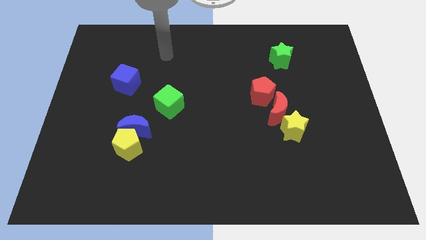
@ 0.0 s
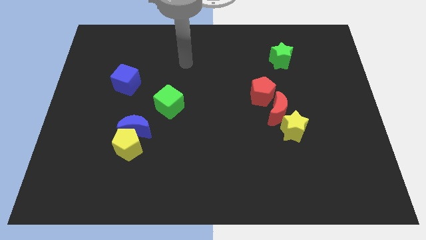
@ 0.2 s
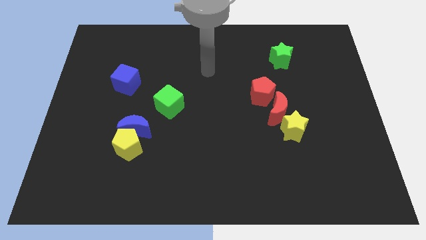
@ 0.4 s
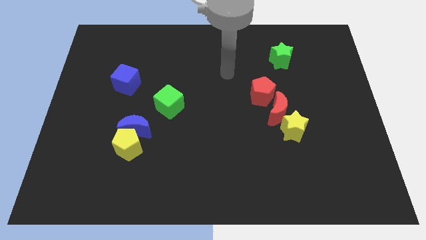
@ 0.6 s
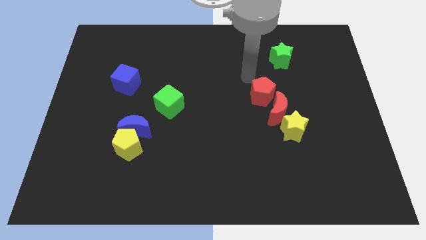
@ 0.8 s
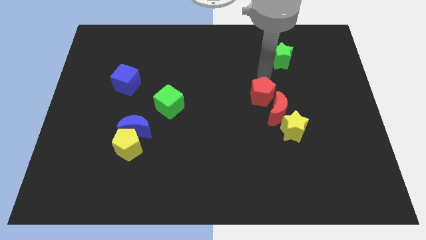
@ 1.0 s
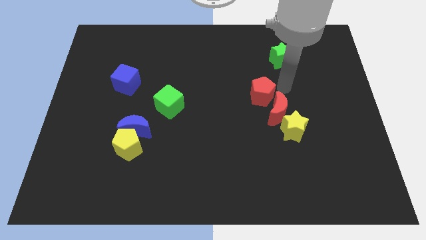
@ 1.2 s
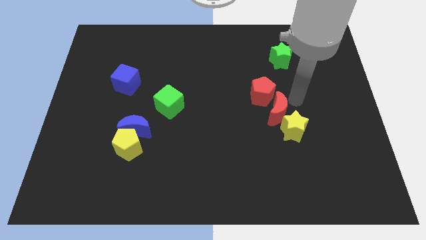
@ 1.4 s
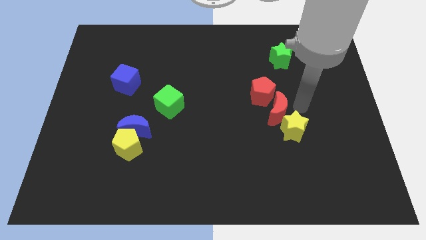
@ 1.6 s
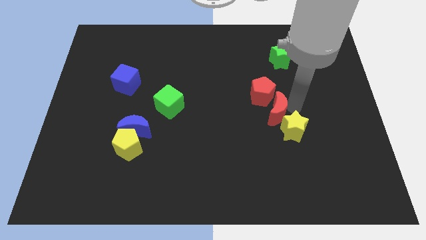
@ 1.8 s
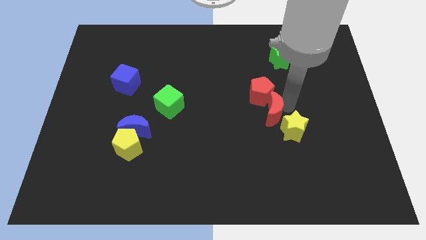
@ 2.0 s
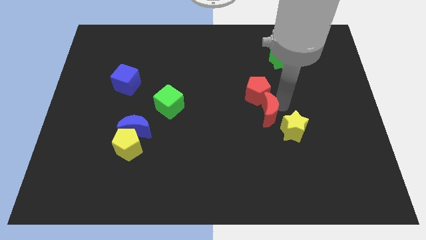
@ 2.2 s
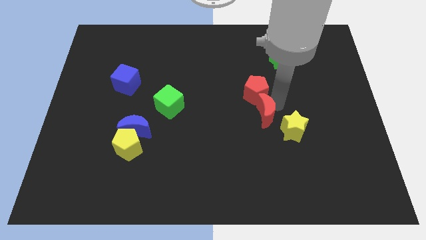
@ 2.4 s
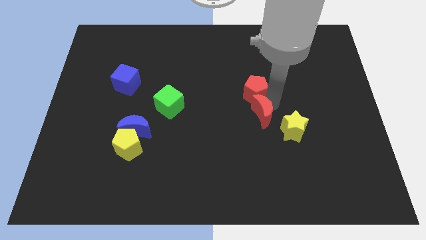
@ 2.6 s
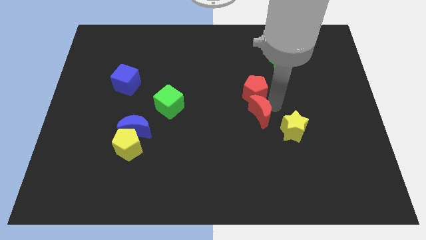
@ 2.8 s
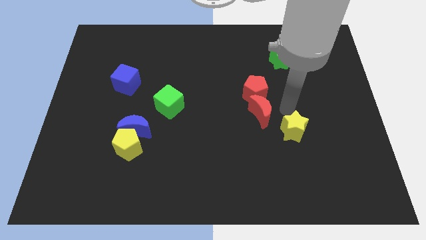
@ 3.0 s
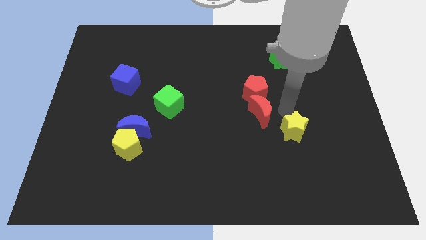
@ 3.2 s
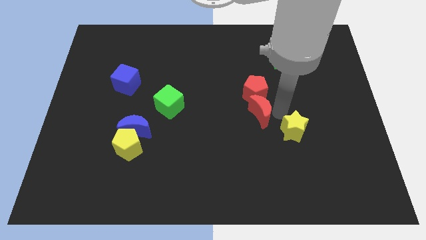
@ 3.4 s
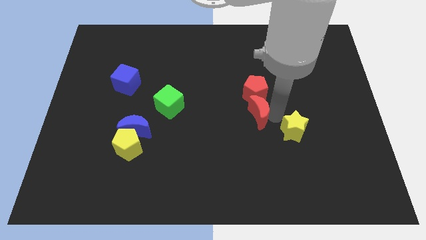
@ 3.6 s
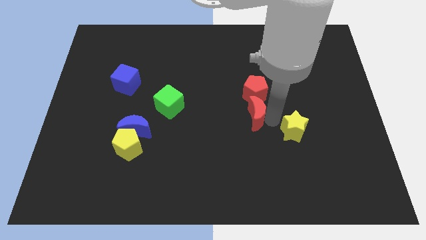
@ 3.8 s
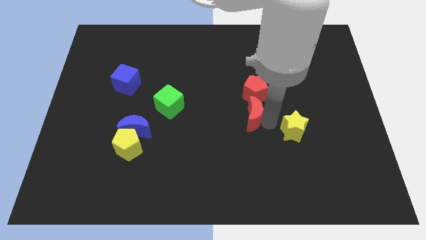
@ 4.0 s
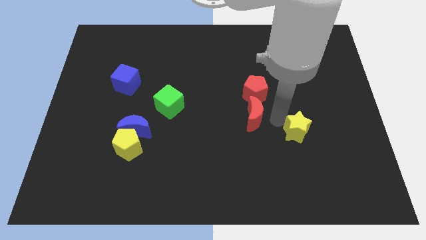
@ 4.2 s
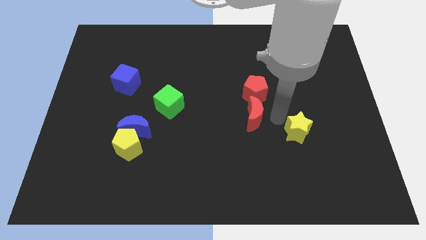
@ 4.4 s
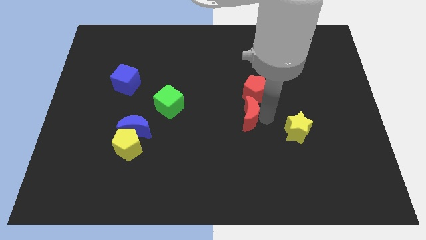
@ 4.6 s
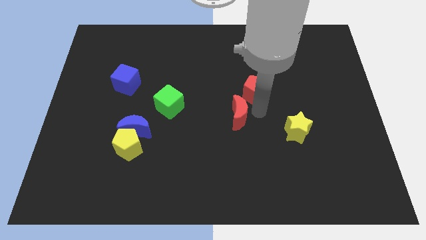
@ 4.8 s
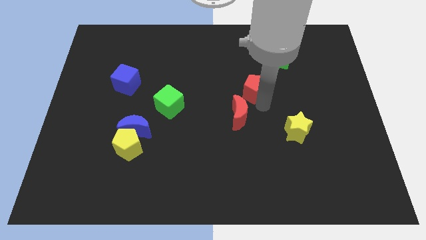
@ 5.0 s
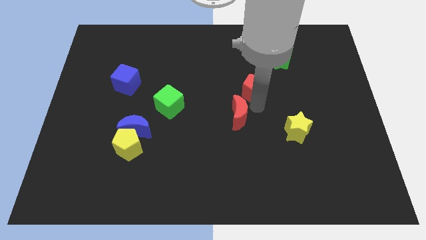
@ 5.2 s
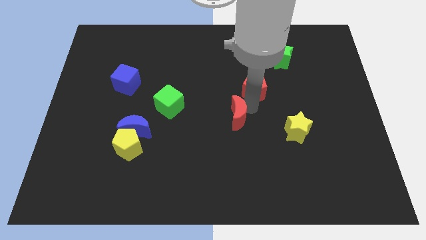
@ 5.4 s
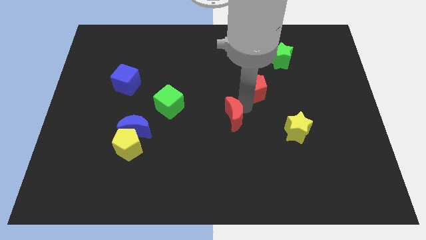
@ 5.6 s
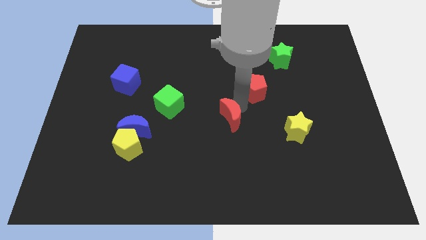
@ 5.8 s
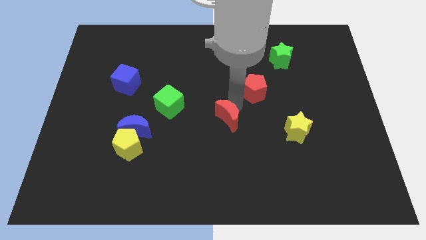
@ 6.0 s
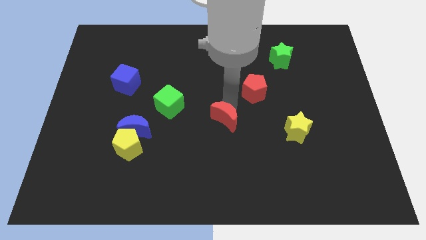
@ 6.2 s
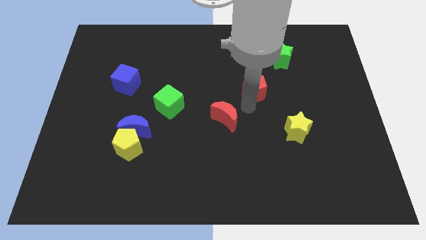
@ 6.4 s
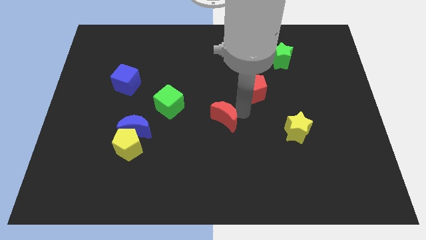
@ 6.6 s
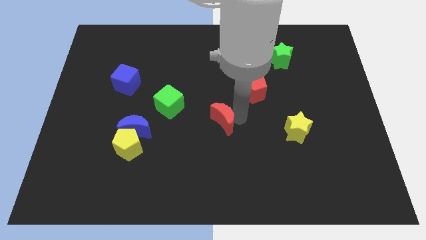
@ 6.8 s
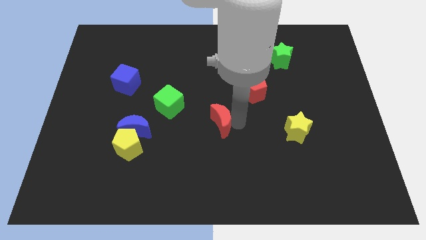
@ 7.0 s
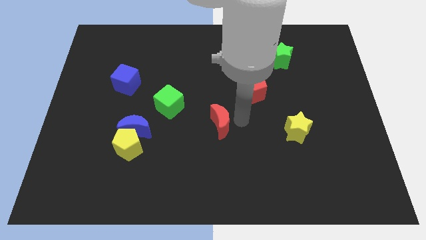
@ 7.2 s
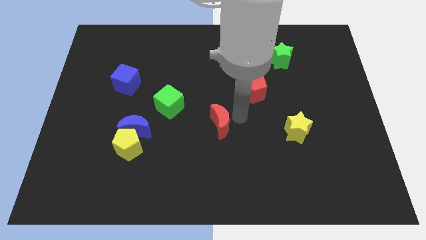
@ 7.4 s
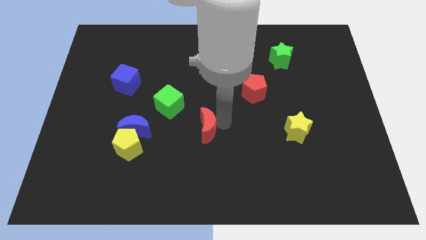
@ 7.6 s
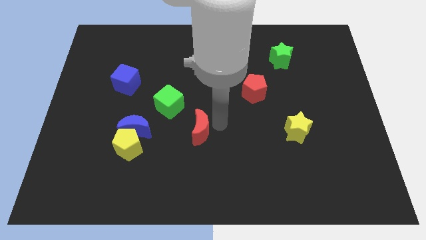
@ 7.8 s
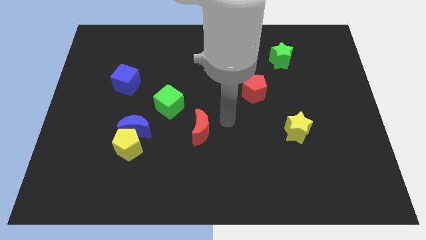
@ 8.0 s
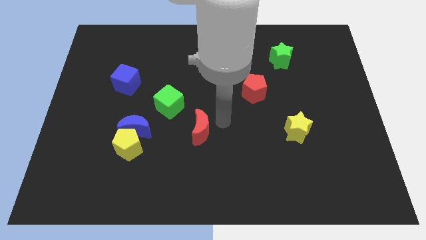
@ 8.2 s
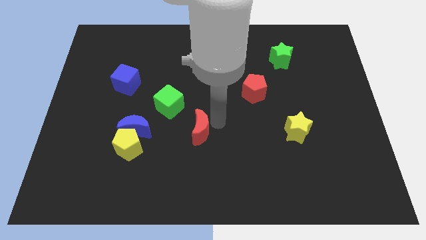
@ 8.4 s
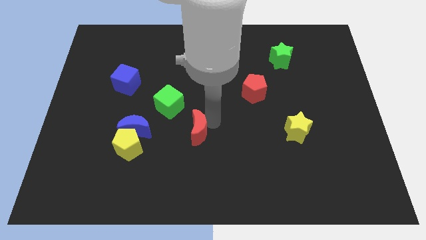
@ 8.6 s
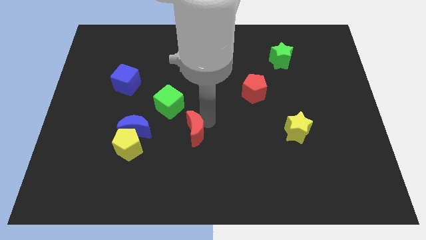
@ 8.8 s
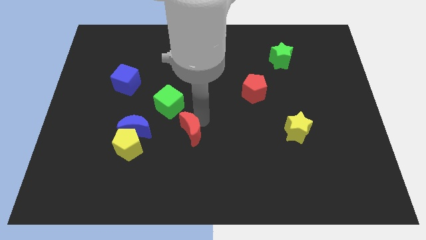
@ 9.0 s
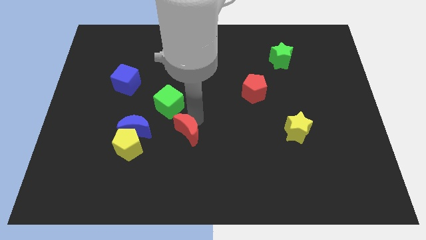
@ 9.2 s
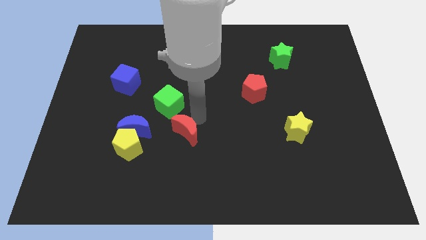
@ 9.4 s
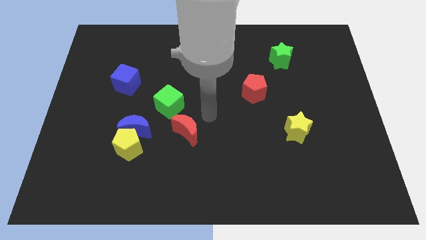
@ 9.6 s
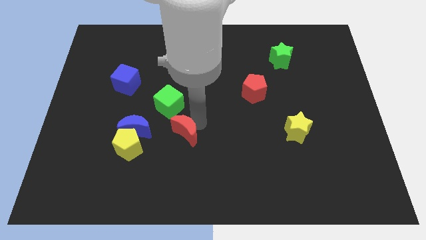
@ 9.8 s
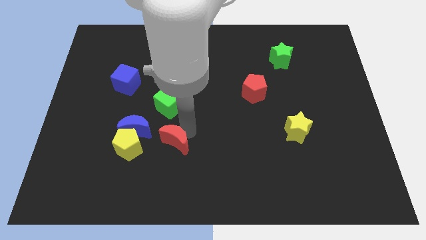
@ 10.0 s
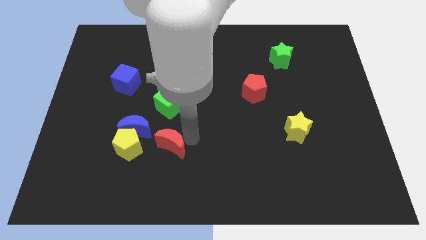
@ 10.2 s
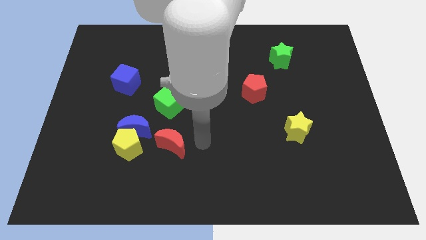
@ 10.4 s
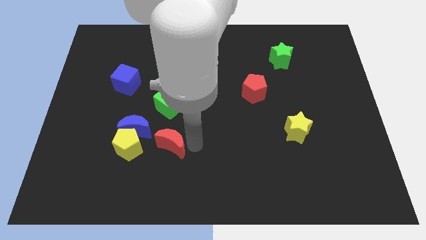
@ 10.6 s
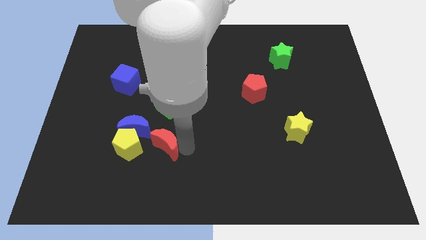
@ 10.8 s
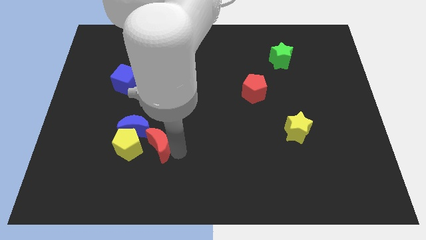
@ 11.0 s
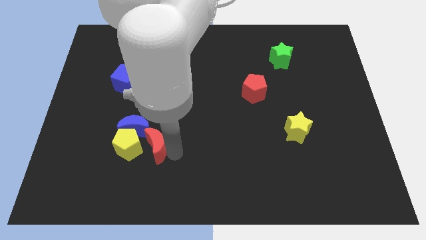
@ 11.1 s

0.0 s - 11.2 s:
move the red moon next to the yellow pentagon

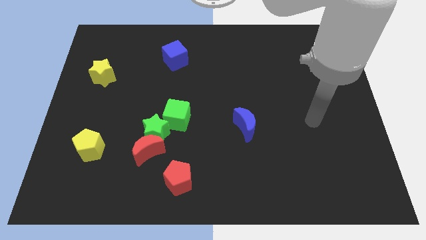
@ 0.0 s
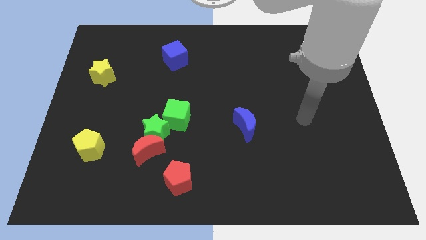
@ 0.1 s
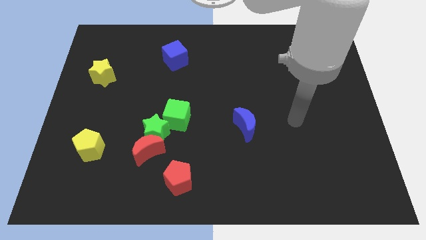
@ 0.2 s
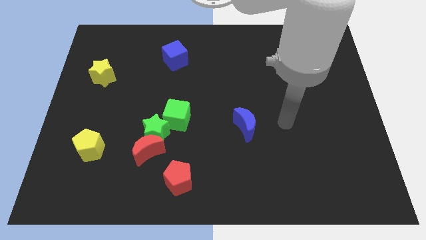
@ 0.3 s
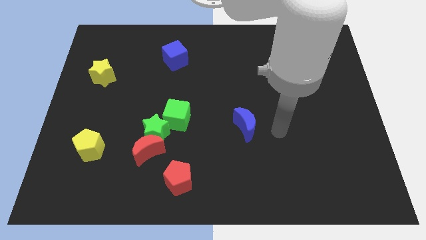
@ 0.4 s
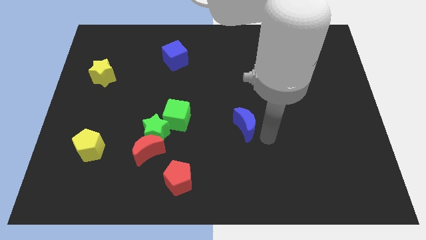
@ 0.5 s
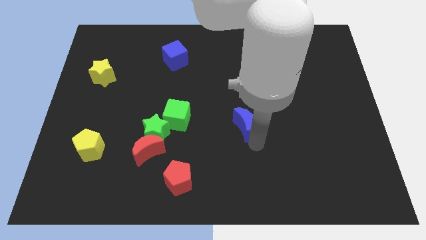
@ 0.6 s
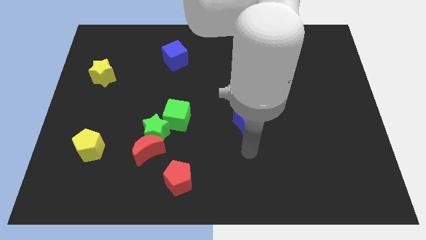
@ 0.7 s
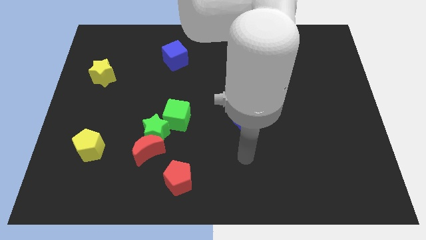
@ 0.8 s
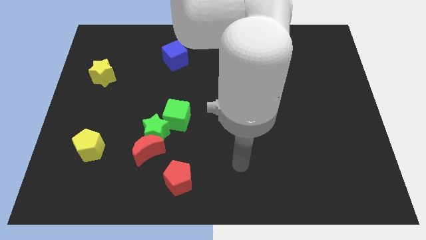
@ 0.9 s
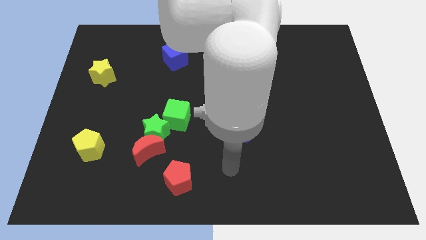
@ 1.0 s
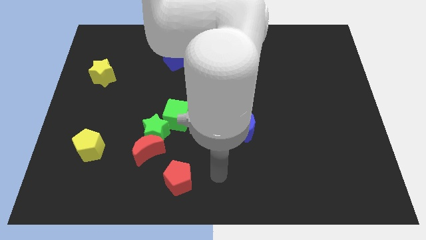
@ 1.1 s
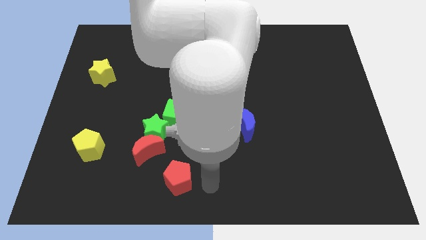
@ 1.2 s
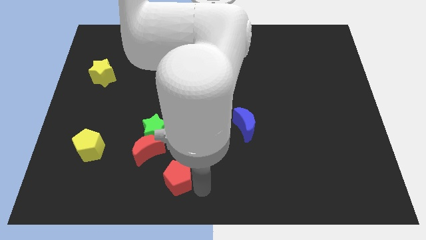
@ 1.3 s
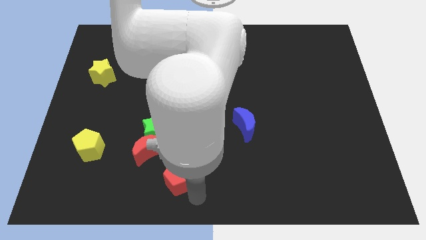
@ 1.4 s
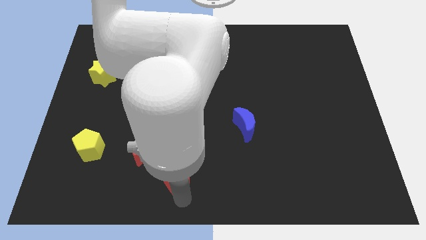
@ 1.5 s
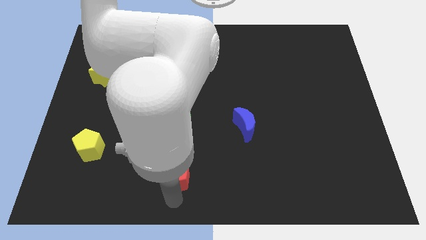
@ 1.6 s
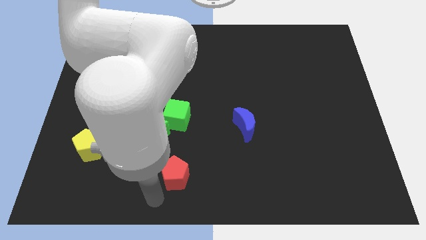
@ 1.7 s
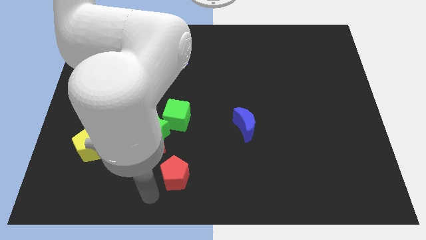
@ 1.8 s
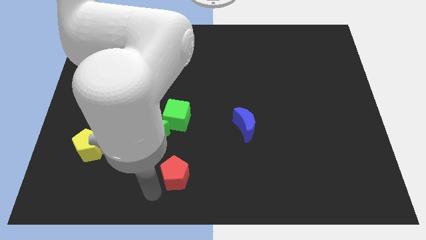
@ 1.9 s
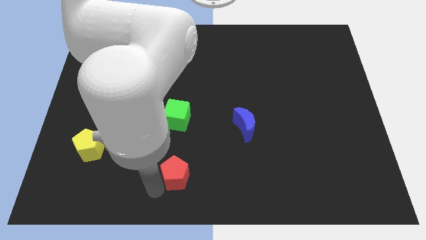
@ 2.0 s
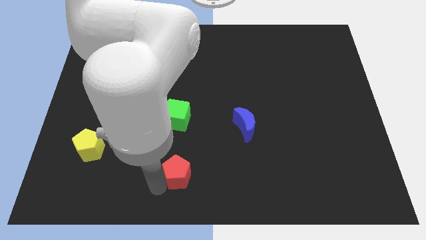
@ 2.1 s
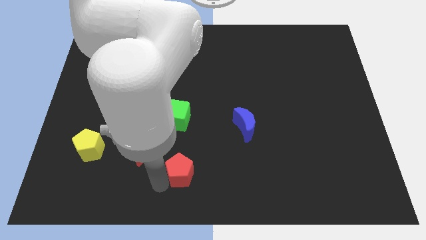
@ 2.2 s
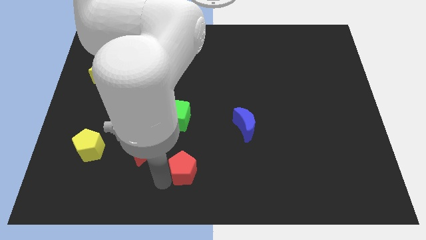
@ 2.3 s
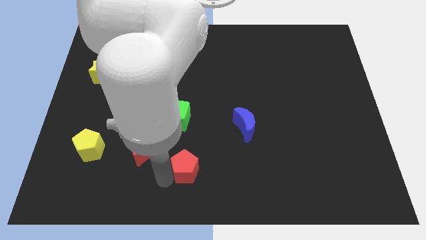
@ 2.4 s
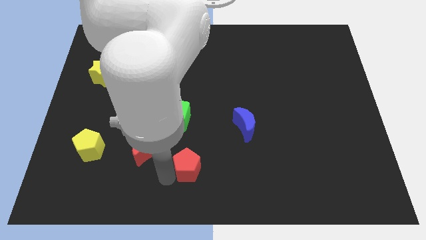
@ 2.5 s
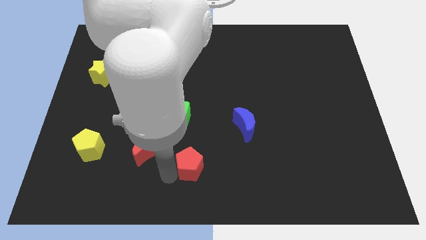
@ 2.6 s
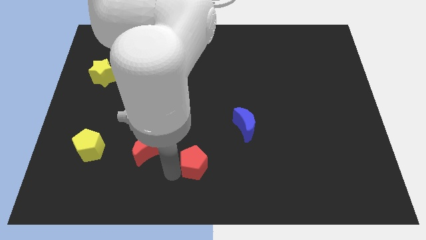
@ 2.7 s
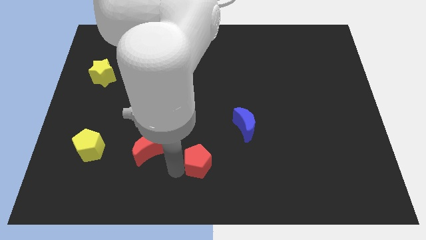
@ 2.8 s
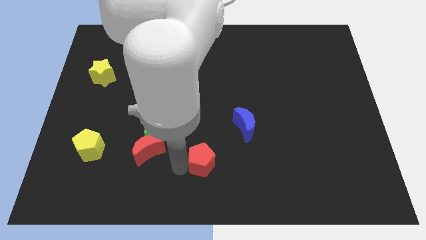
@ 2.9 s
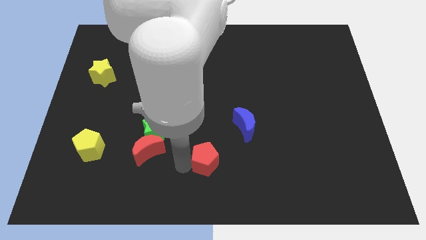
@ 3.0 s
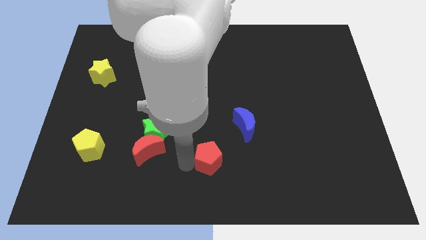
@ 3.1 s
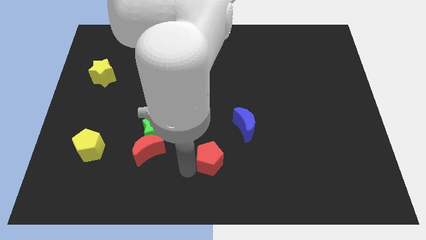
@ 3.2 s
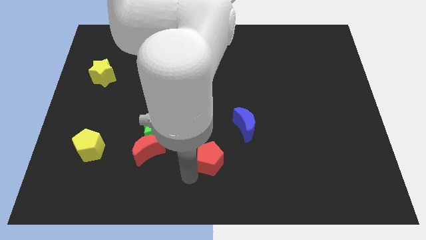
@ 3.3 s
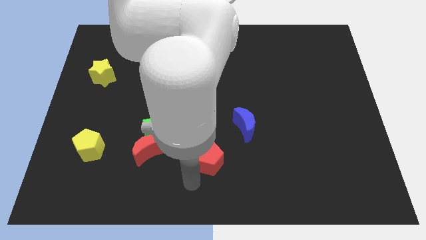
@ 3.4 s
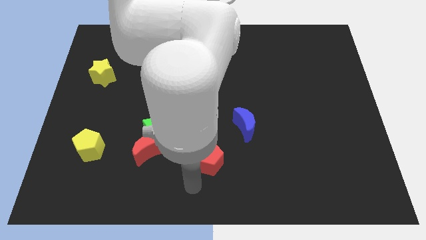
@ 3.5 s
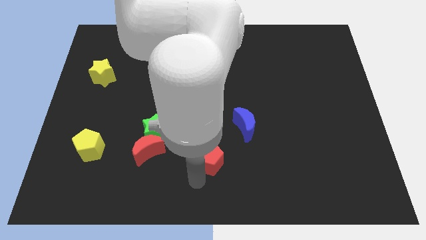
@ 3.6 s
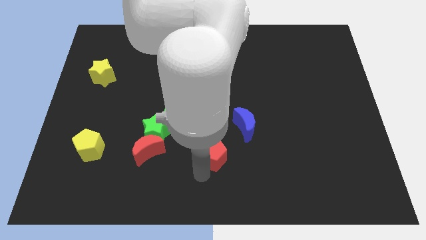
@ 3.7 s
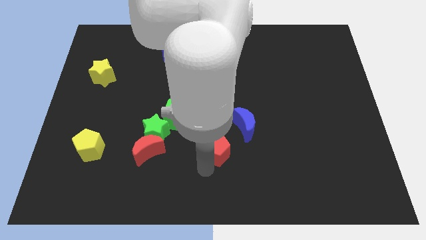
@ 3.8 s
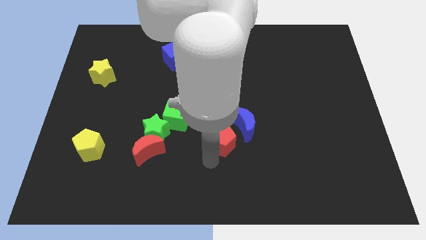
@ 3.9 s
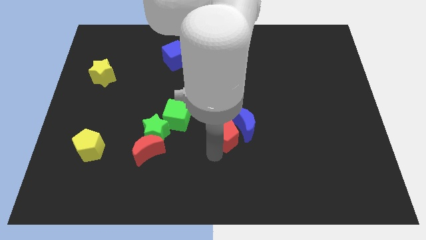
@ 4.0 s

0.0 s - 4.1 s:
slide the red pentagon to the blue moon
